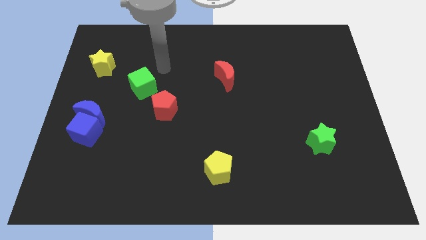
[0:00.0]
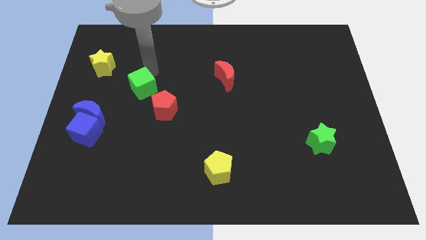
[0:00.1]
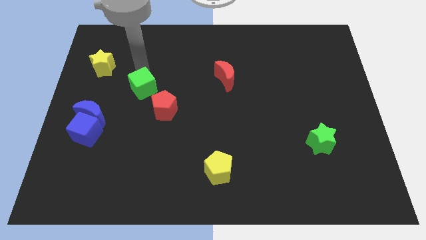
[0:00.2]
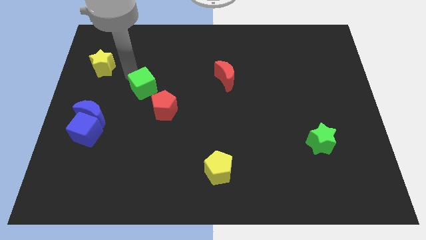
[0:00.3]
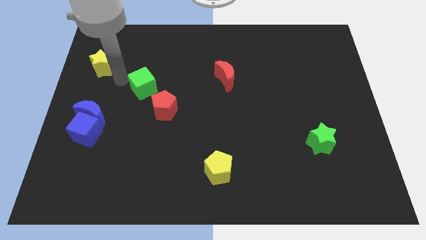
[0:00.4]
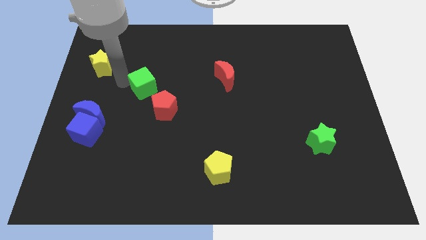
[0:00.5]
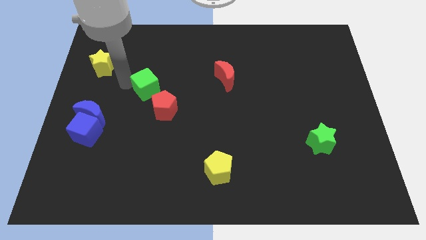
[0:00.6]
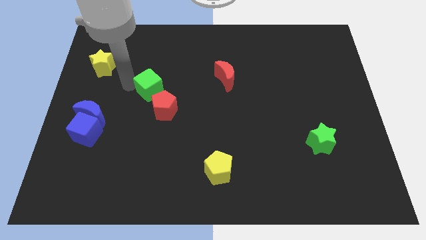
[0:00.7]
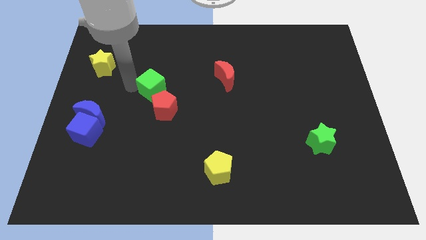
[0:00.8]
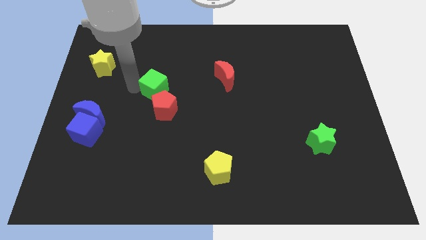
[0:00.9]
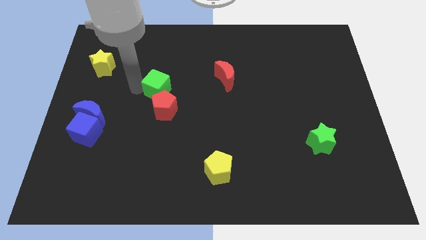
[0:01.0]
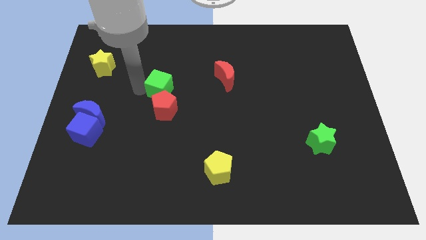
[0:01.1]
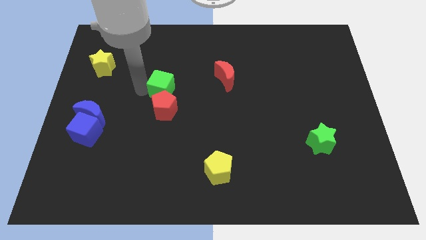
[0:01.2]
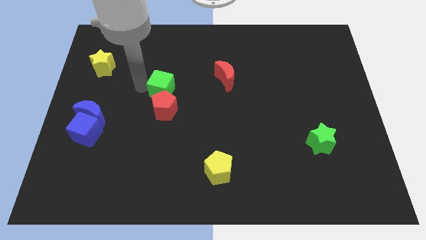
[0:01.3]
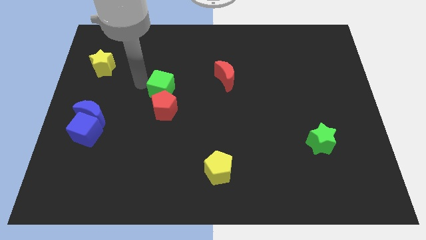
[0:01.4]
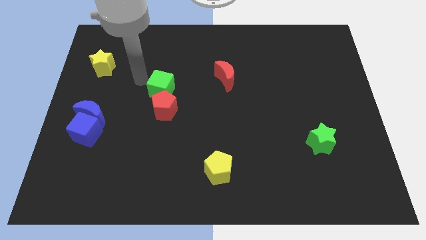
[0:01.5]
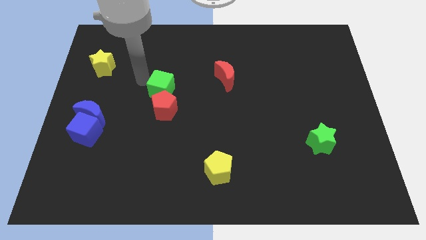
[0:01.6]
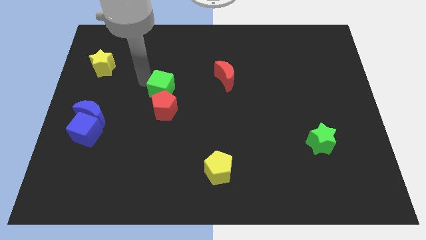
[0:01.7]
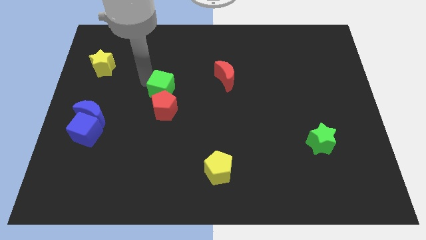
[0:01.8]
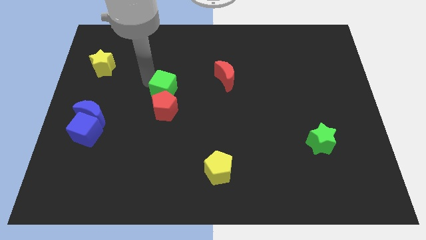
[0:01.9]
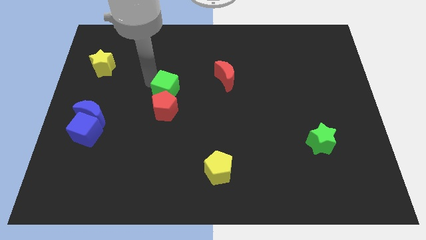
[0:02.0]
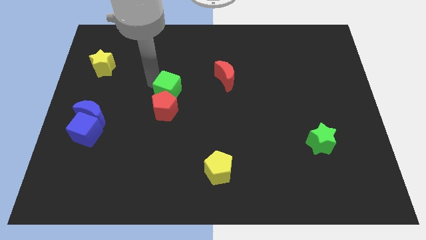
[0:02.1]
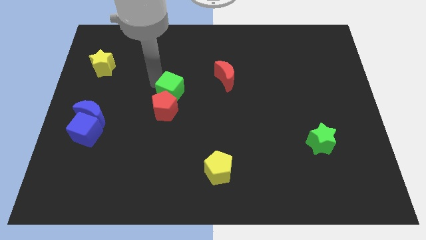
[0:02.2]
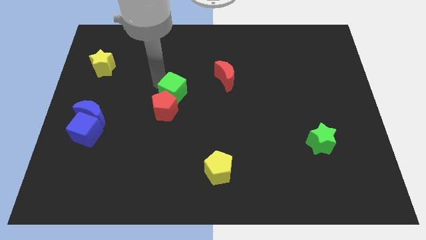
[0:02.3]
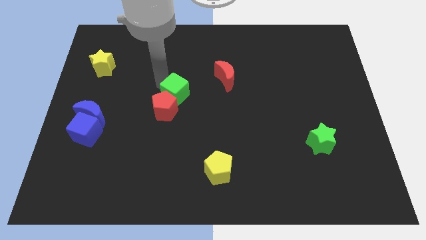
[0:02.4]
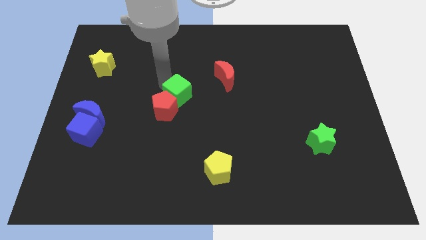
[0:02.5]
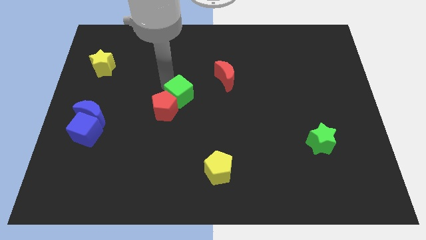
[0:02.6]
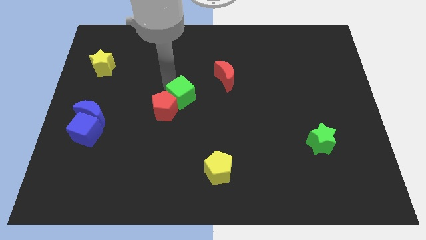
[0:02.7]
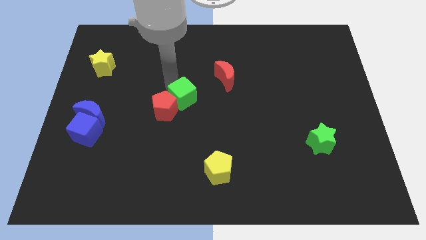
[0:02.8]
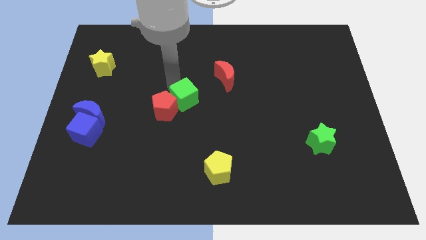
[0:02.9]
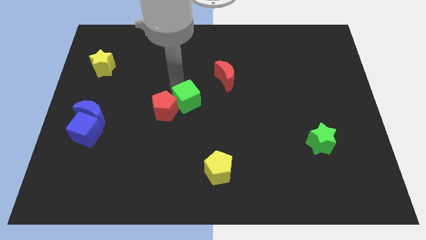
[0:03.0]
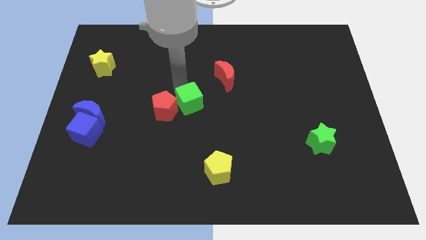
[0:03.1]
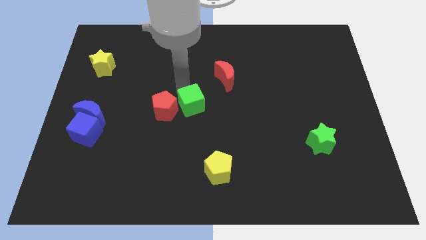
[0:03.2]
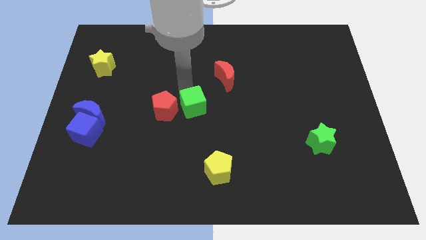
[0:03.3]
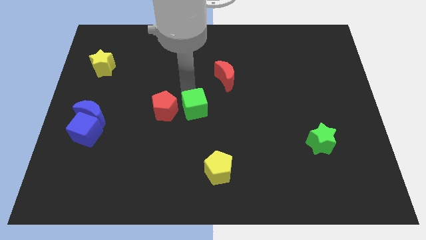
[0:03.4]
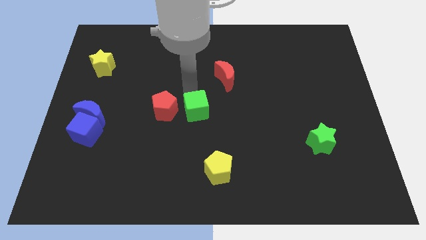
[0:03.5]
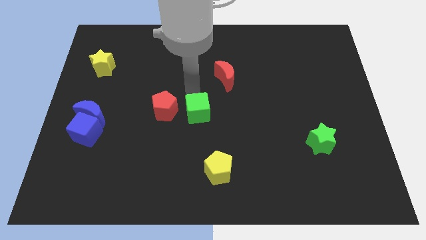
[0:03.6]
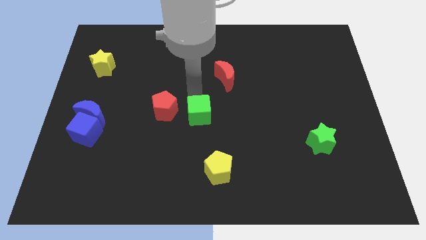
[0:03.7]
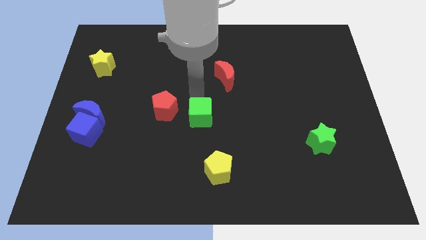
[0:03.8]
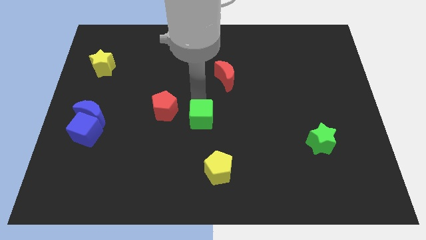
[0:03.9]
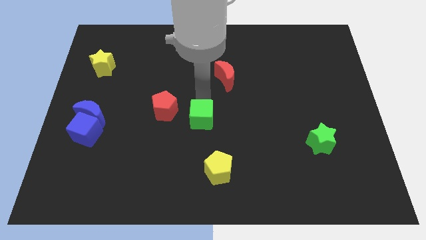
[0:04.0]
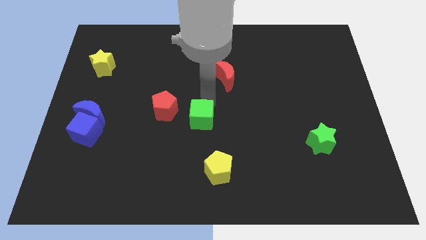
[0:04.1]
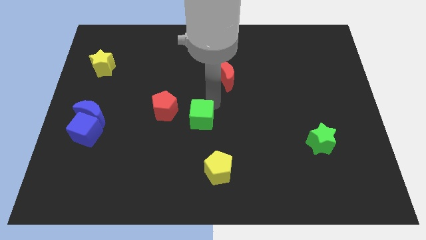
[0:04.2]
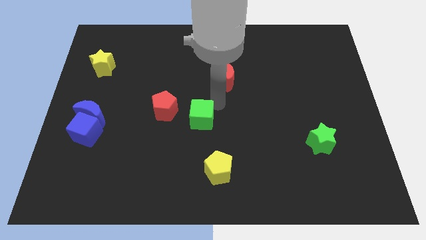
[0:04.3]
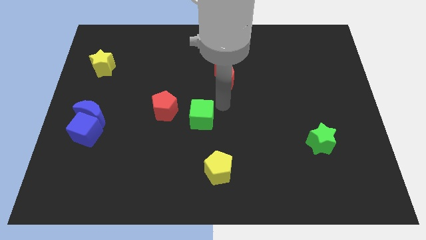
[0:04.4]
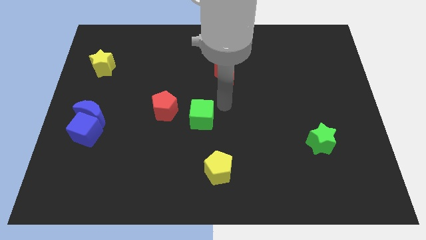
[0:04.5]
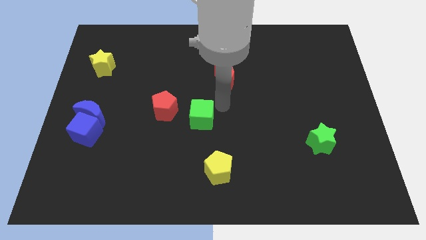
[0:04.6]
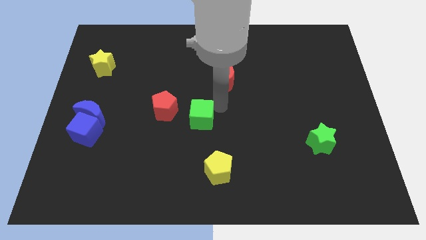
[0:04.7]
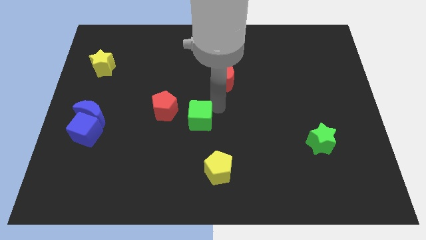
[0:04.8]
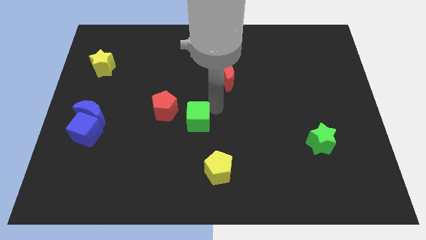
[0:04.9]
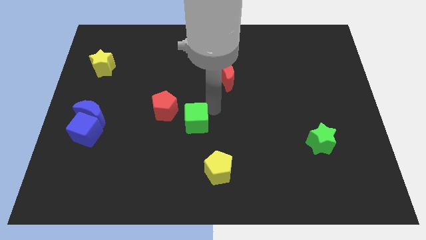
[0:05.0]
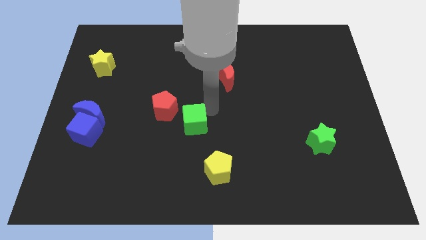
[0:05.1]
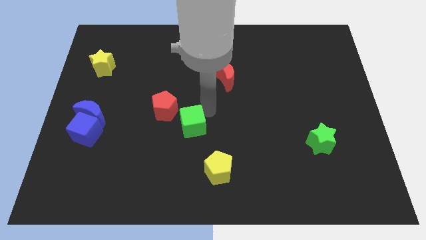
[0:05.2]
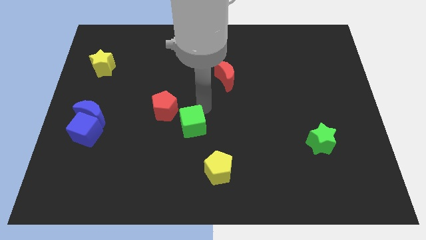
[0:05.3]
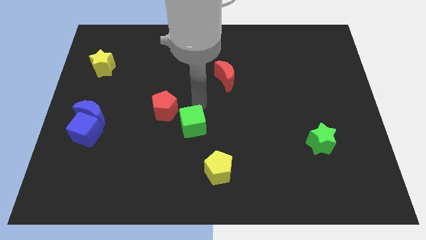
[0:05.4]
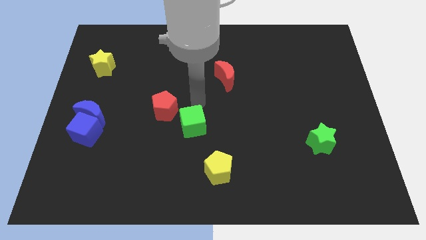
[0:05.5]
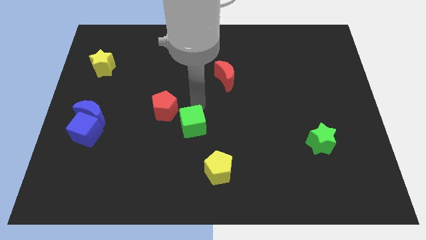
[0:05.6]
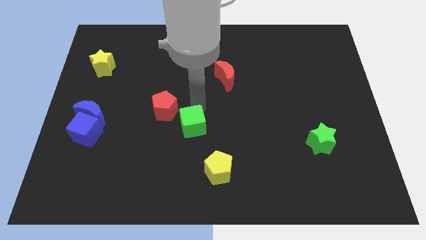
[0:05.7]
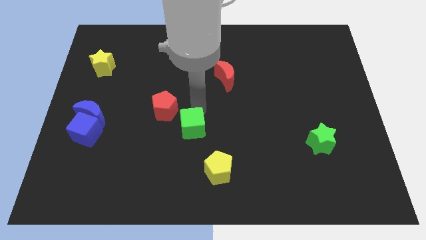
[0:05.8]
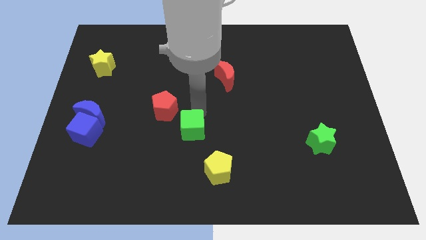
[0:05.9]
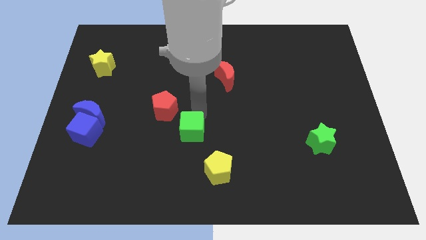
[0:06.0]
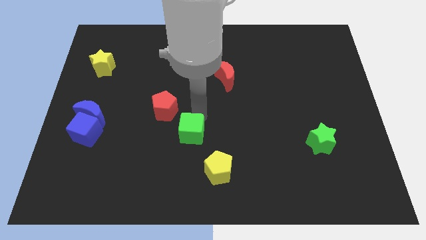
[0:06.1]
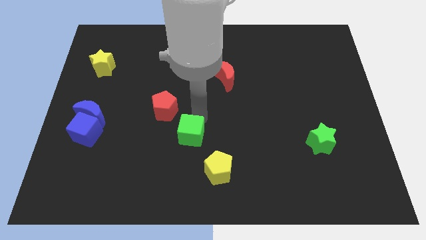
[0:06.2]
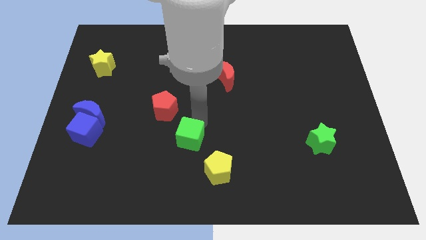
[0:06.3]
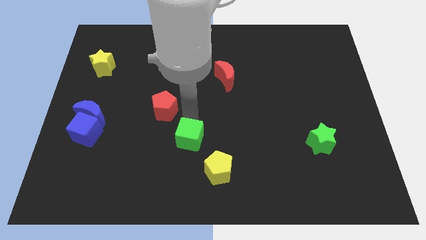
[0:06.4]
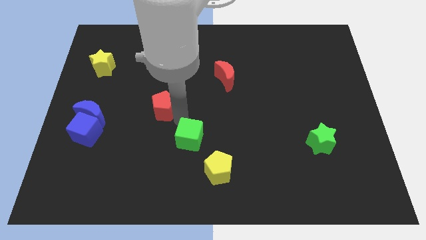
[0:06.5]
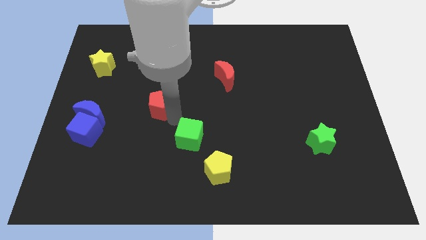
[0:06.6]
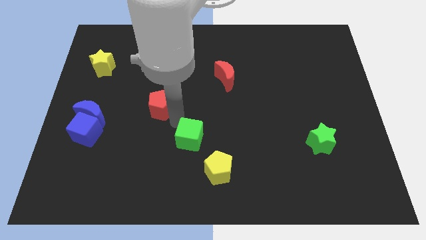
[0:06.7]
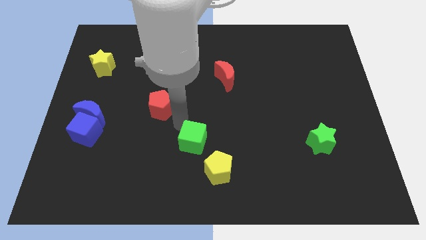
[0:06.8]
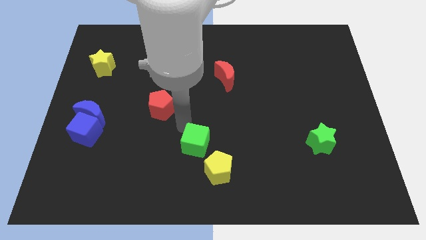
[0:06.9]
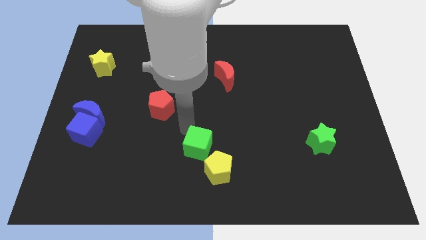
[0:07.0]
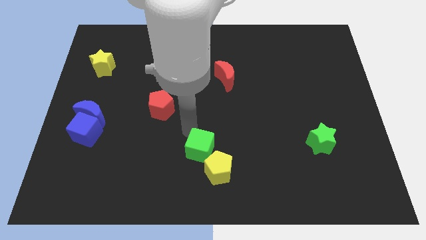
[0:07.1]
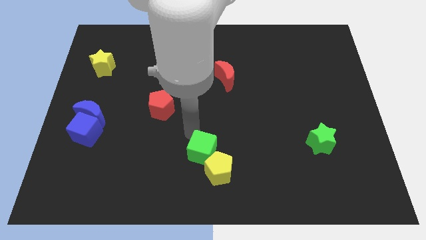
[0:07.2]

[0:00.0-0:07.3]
put the green cube next to the yellow pentagon
